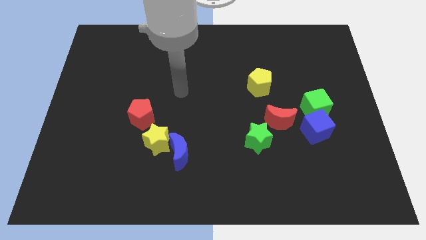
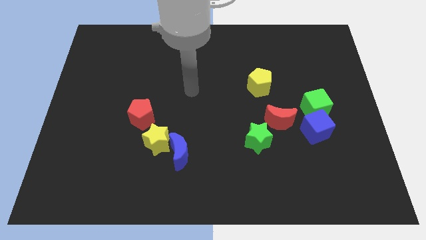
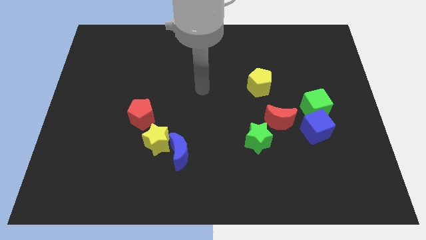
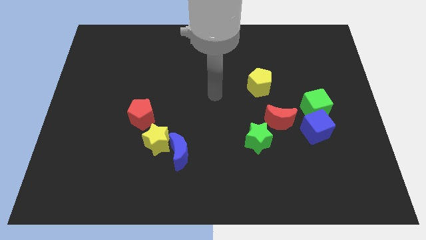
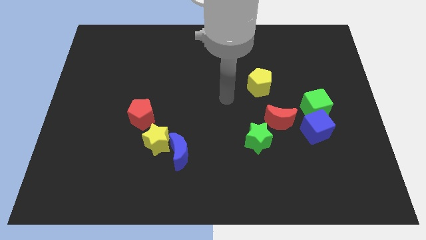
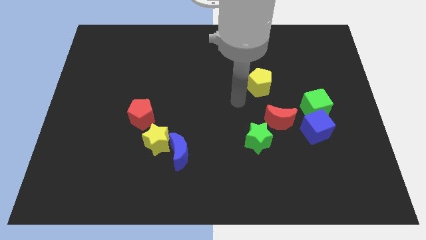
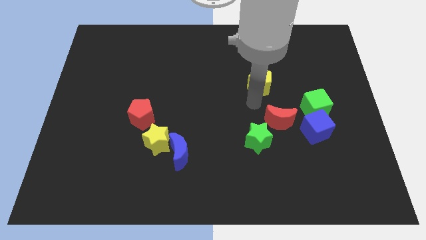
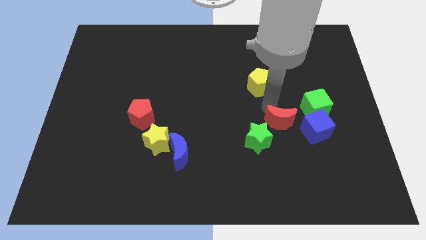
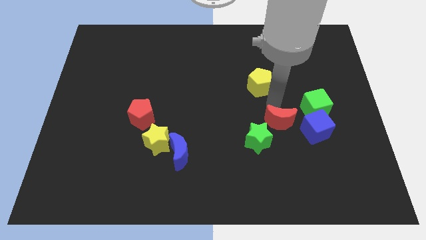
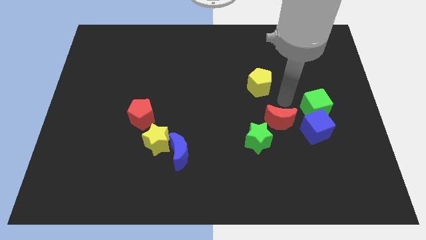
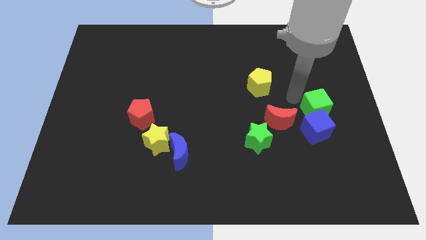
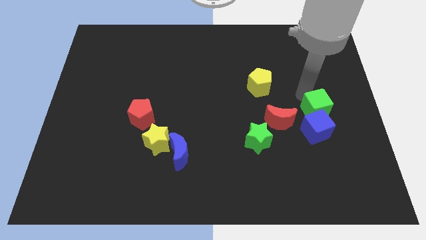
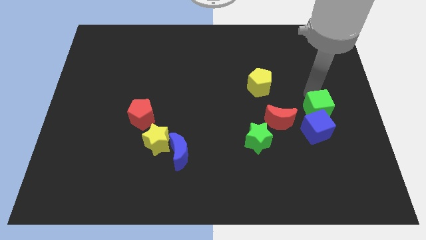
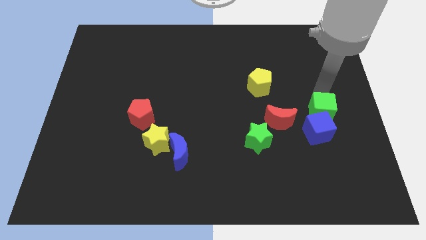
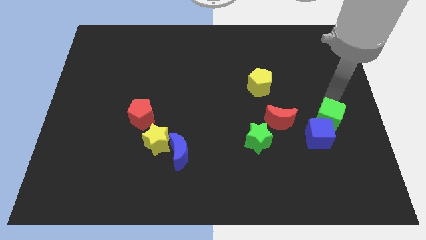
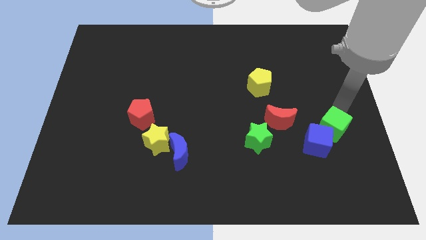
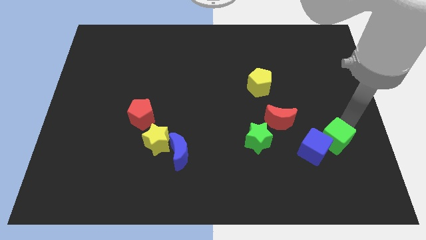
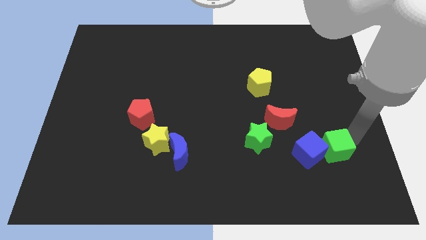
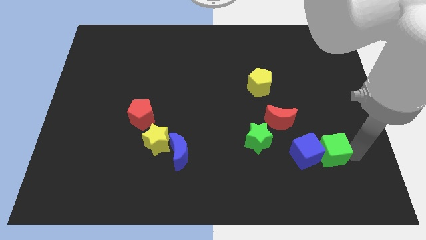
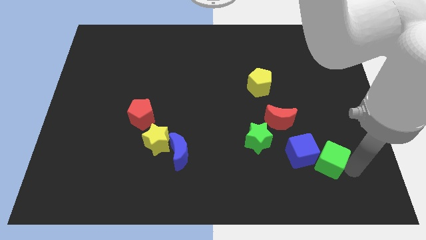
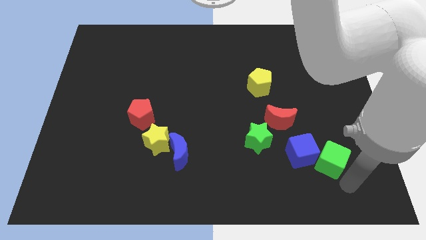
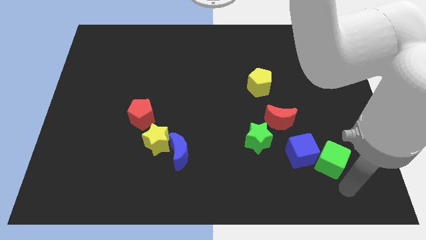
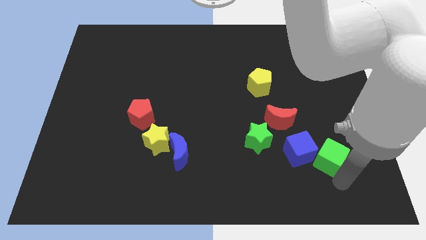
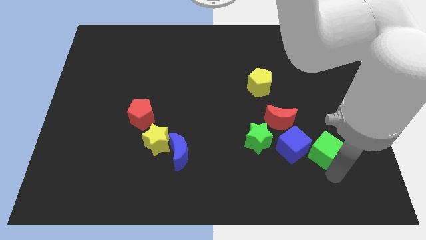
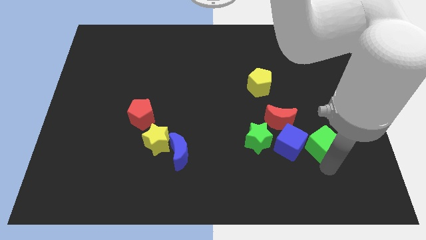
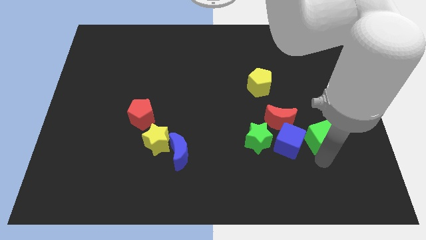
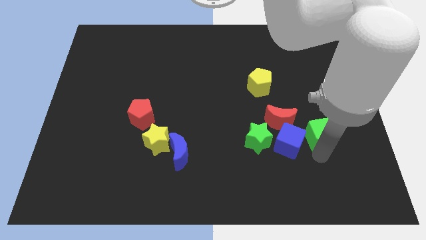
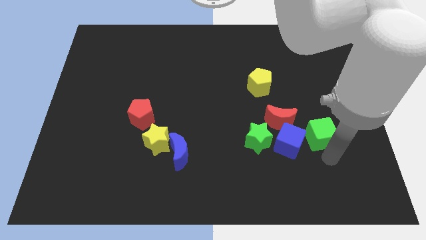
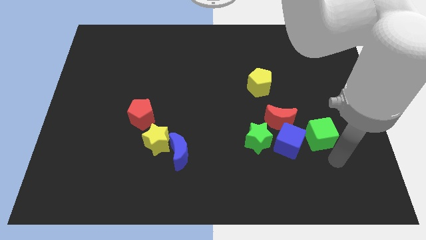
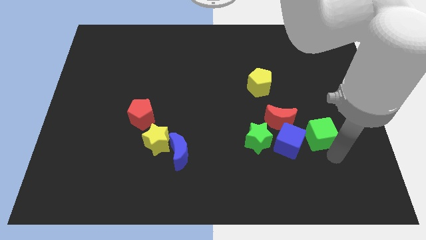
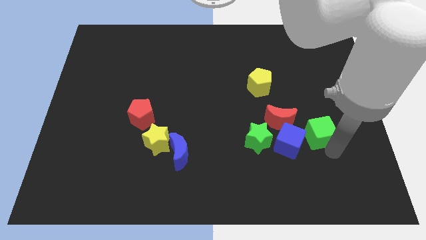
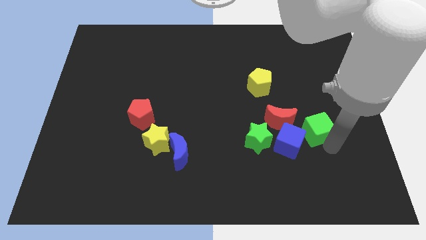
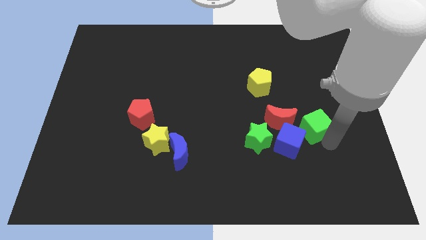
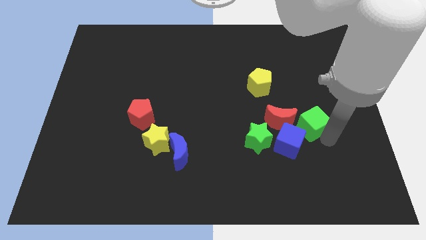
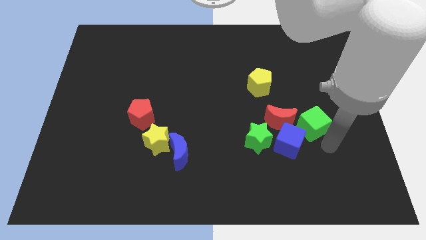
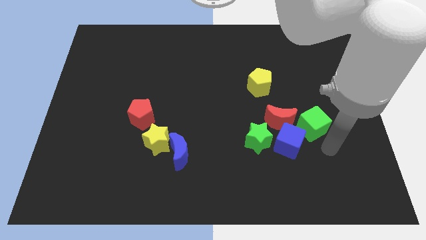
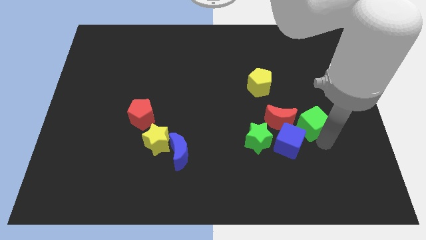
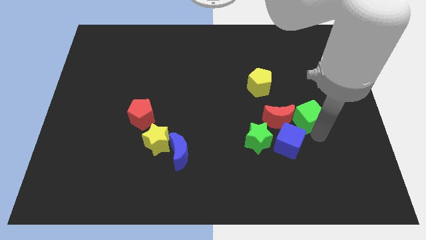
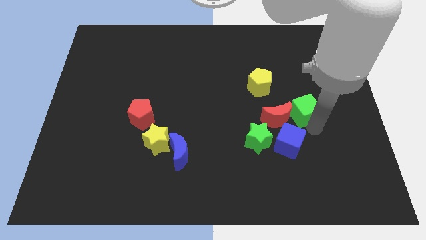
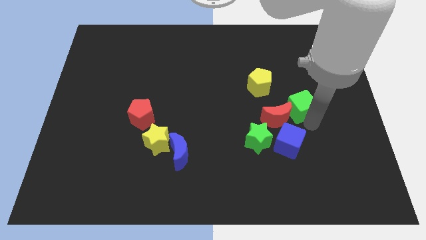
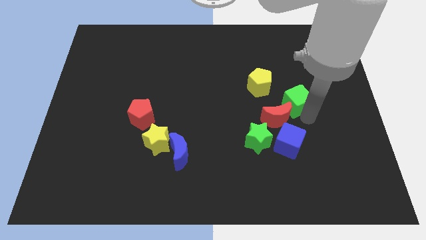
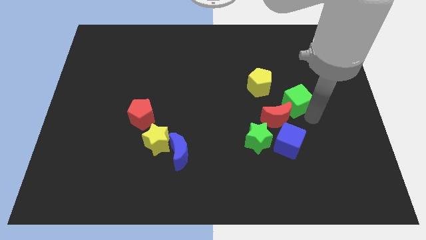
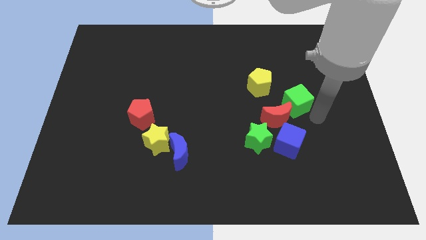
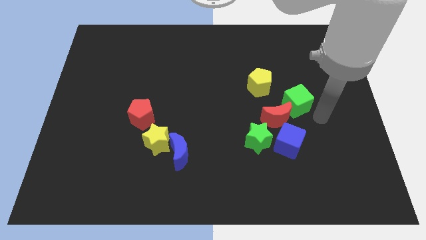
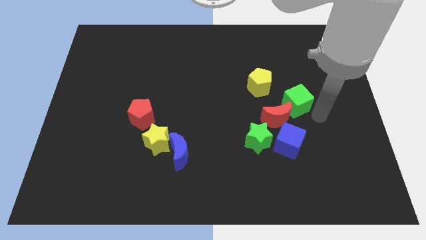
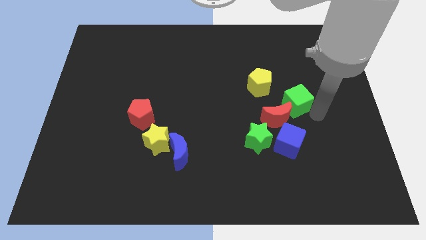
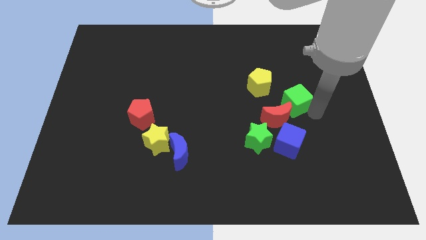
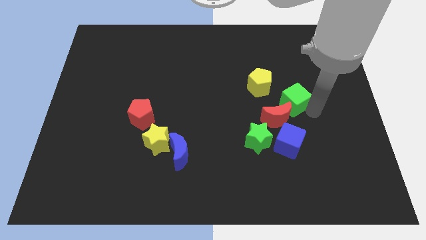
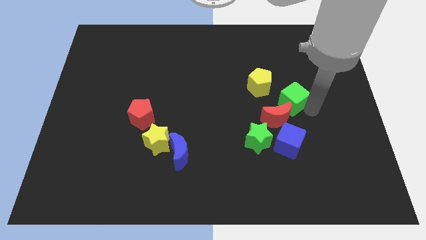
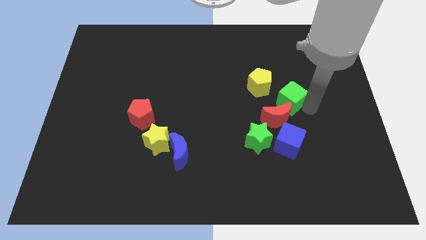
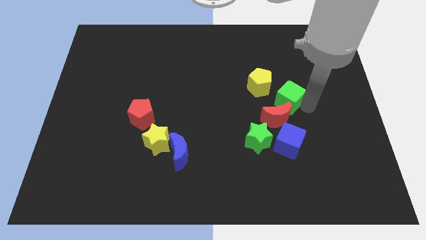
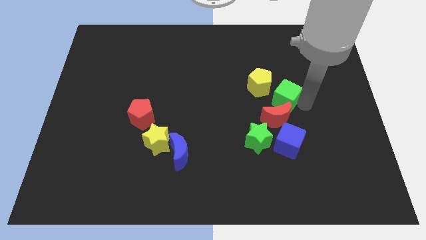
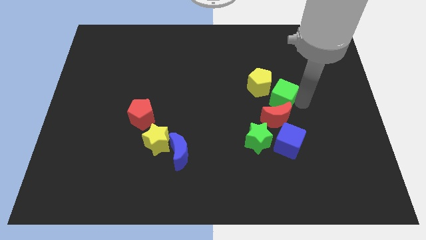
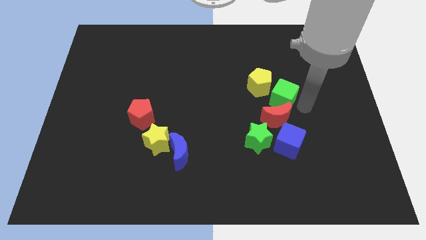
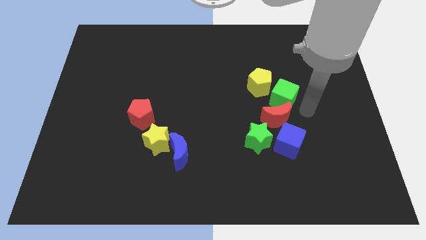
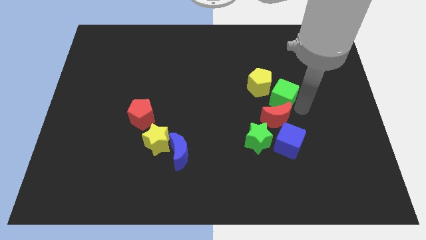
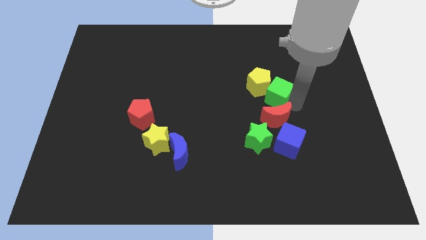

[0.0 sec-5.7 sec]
push the green cube close to the yellow pentagon

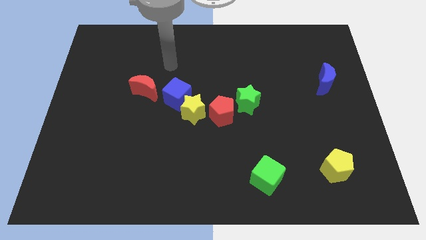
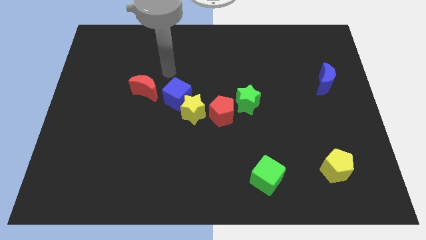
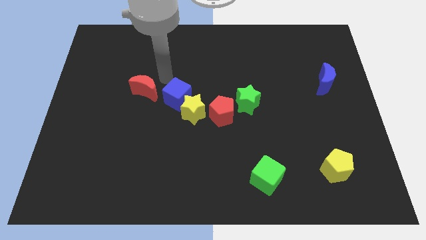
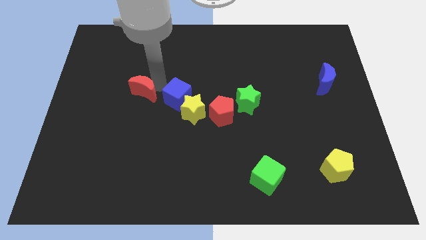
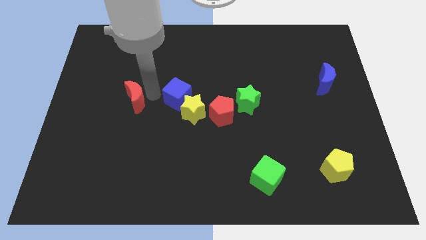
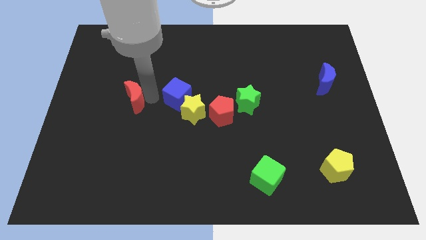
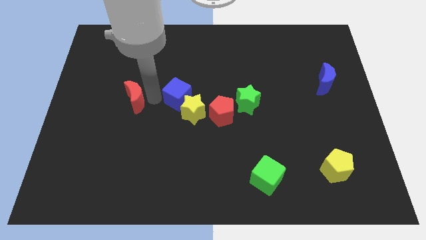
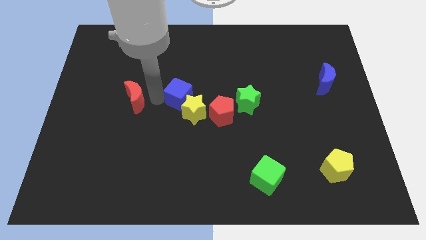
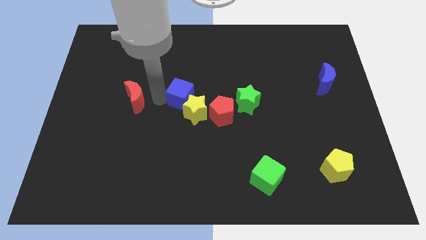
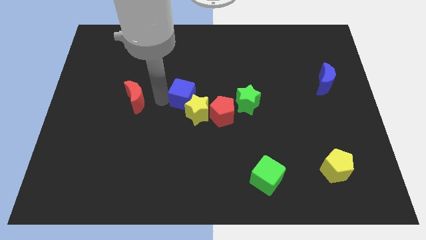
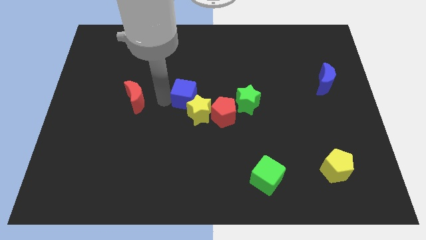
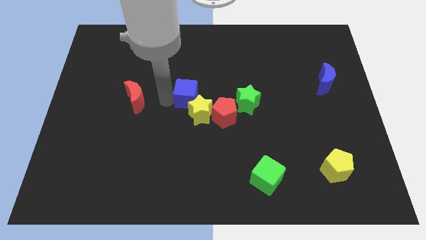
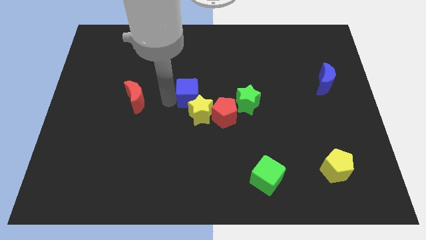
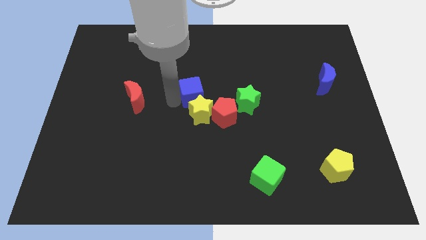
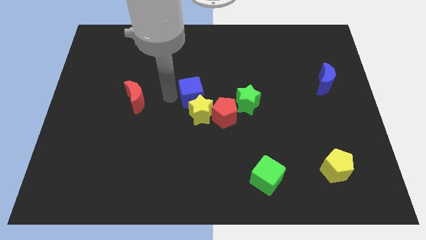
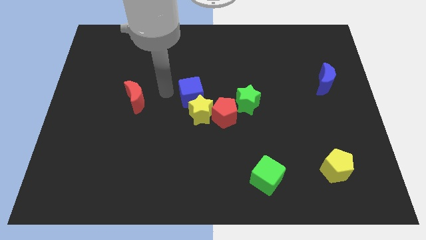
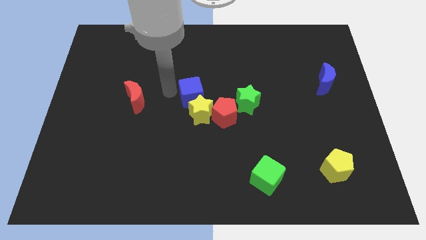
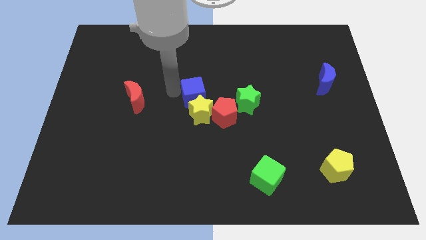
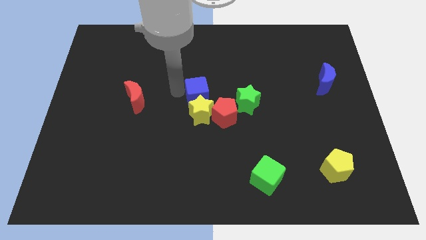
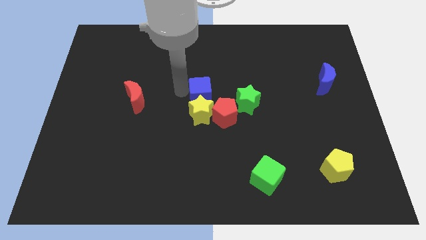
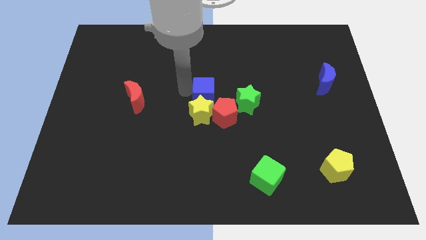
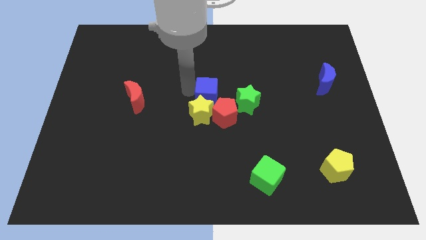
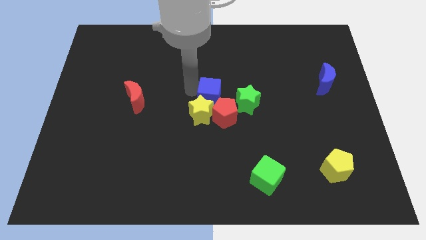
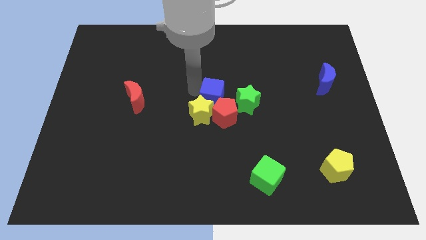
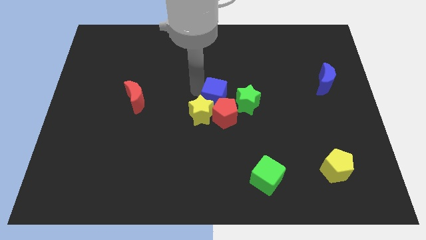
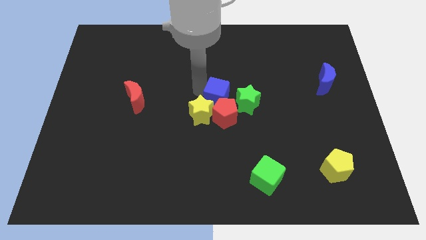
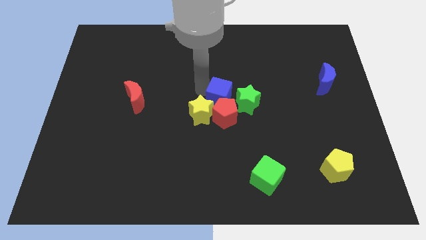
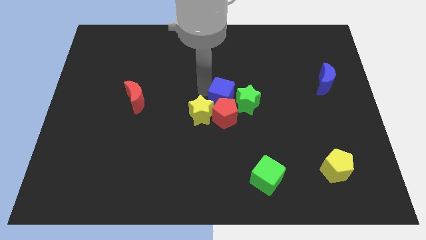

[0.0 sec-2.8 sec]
put the blue cube towards the green star
